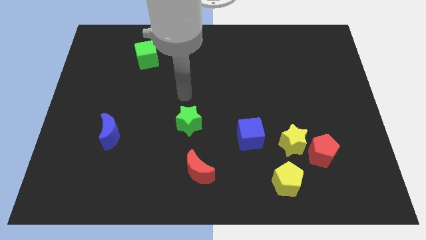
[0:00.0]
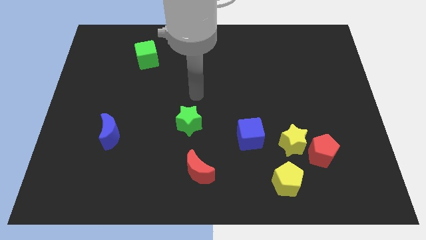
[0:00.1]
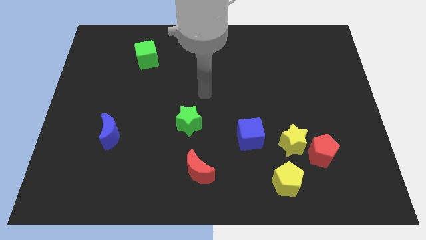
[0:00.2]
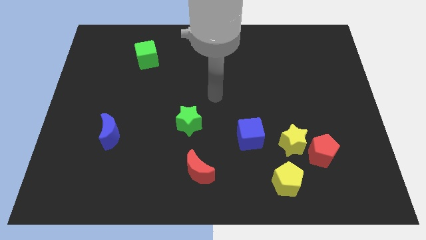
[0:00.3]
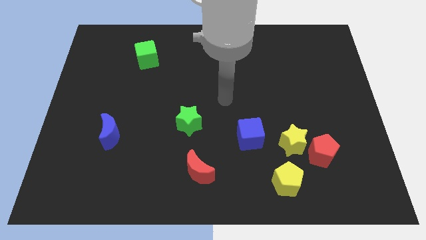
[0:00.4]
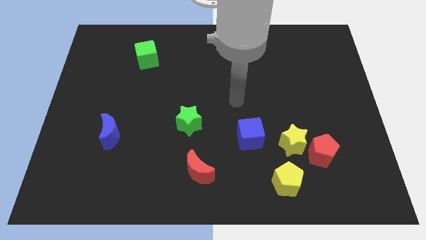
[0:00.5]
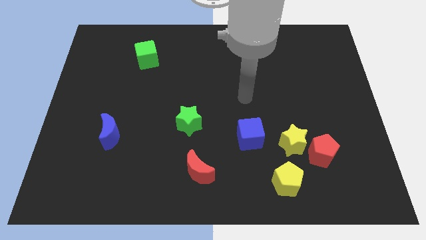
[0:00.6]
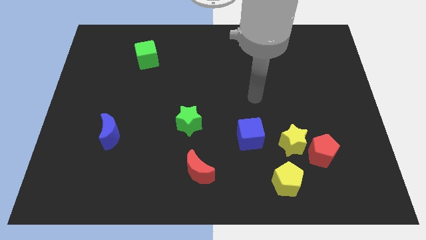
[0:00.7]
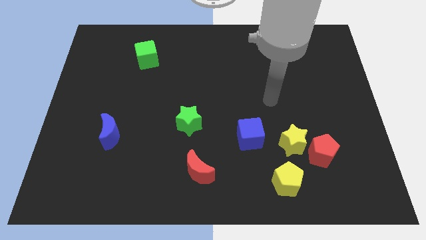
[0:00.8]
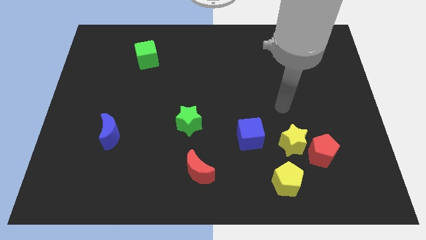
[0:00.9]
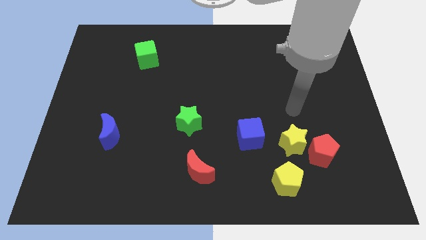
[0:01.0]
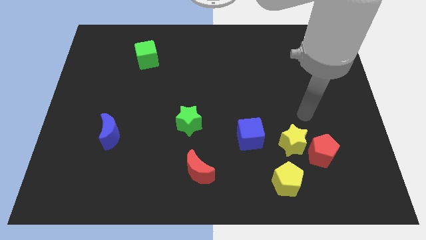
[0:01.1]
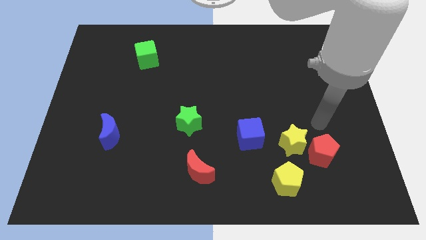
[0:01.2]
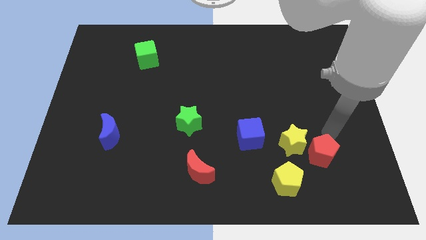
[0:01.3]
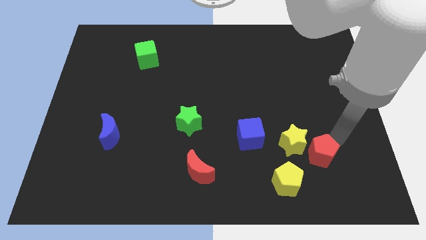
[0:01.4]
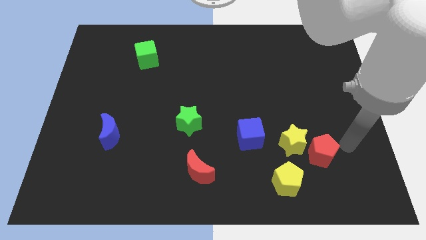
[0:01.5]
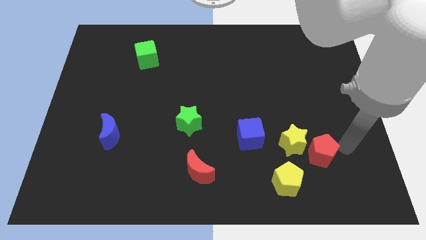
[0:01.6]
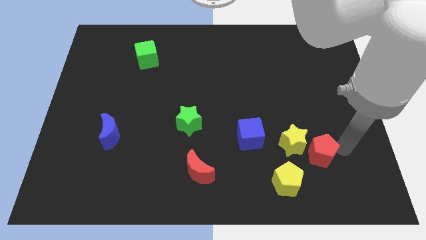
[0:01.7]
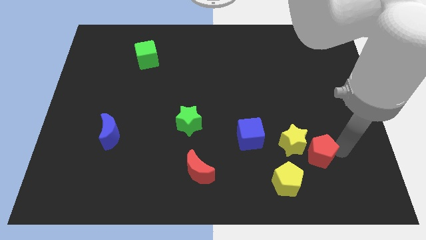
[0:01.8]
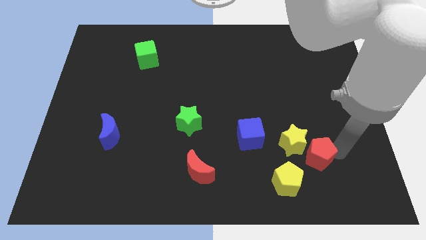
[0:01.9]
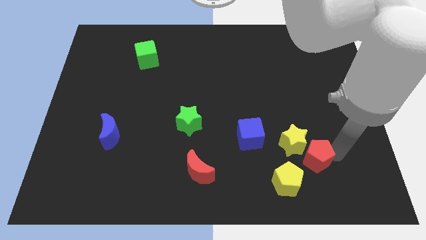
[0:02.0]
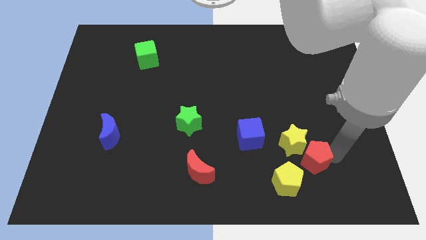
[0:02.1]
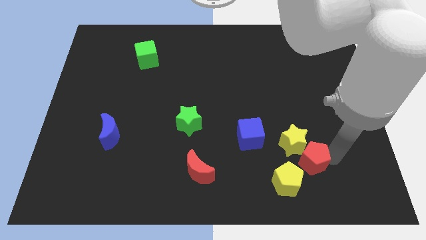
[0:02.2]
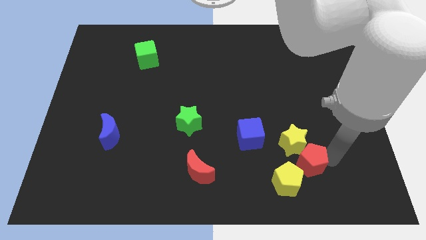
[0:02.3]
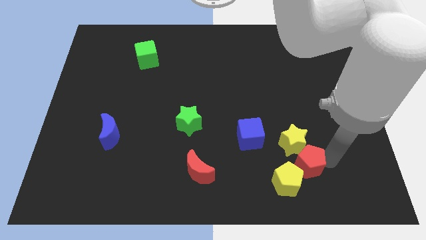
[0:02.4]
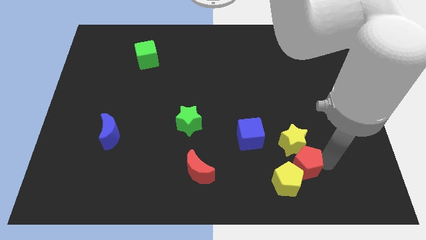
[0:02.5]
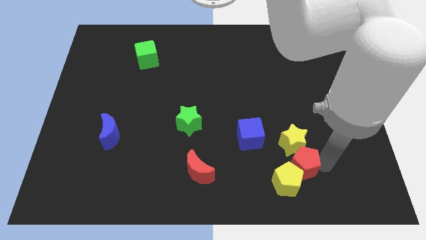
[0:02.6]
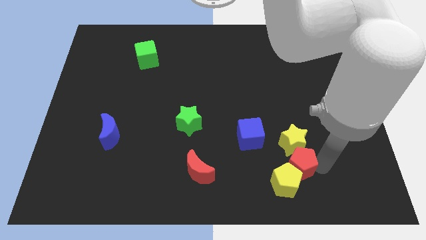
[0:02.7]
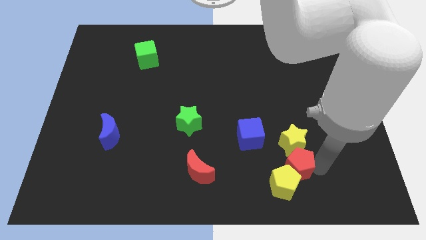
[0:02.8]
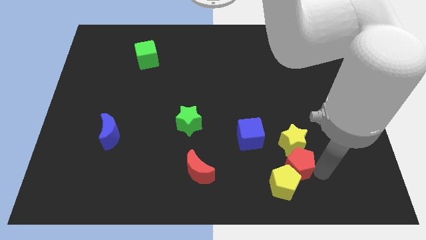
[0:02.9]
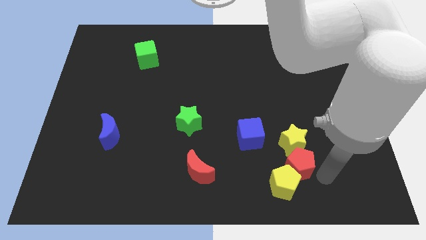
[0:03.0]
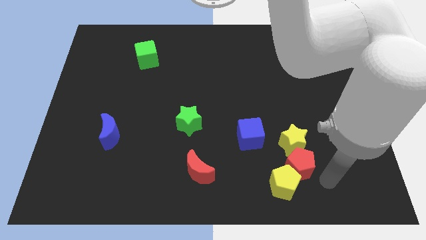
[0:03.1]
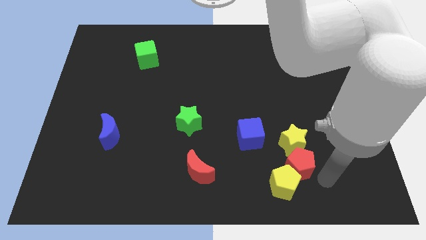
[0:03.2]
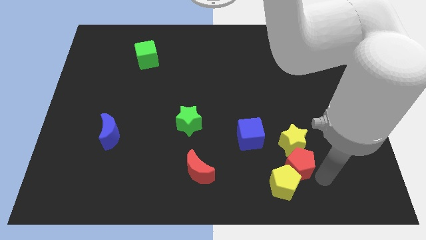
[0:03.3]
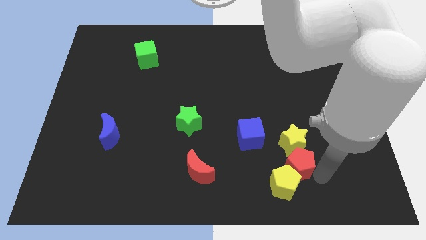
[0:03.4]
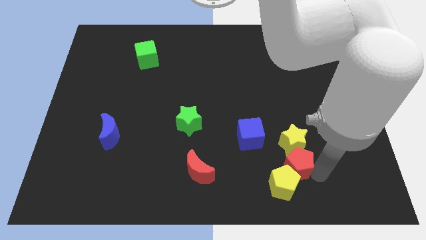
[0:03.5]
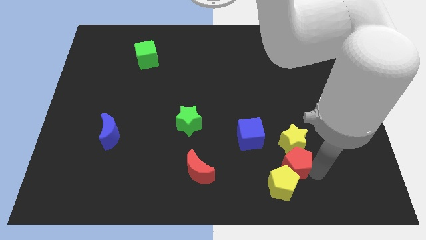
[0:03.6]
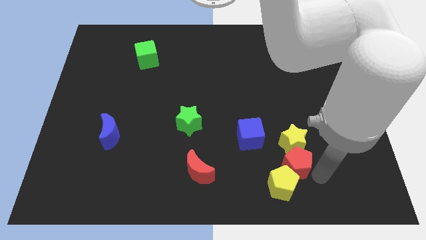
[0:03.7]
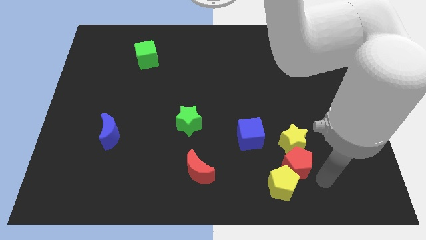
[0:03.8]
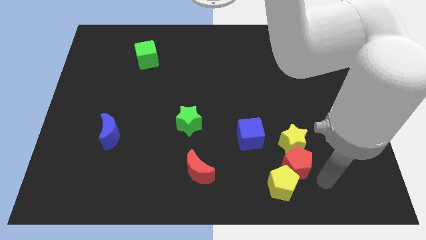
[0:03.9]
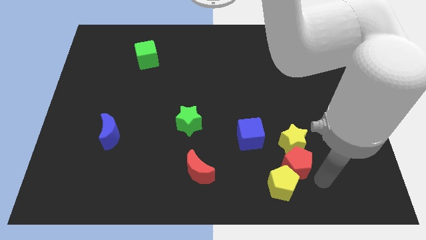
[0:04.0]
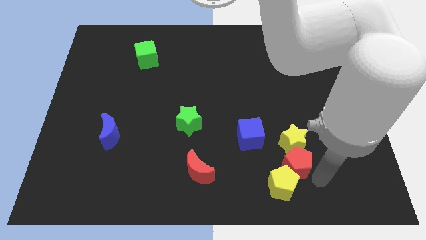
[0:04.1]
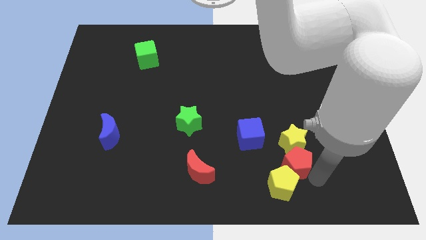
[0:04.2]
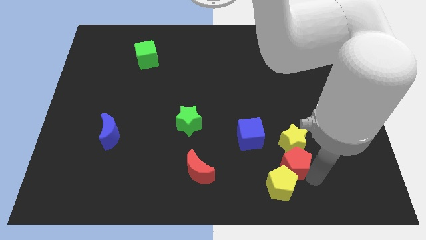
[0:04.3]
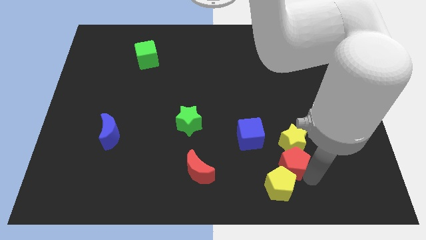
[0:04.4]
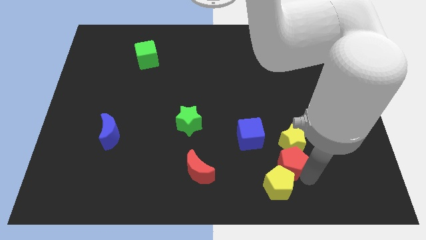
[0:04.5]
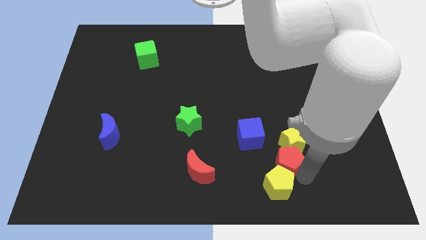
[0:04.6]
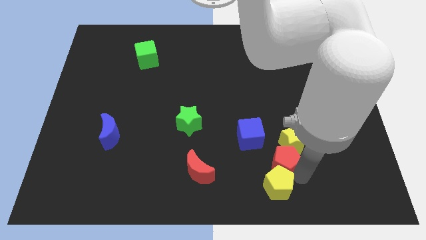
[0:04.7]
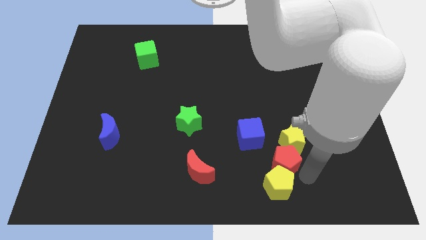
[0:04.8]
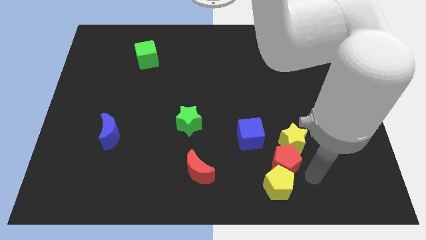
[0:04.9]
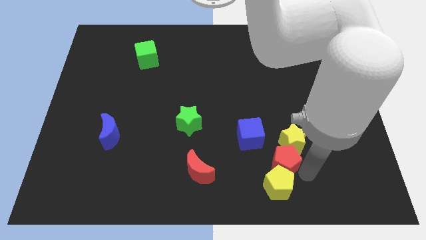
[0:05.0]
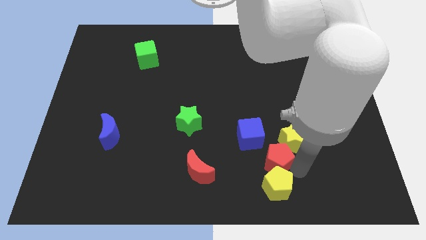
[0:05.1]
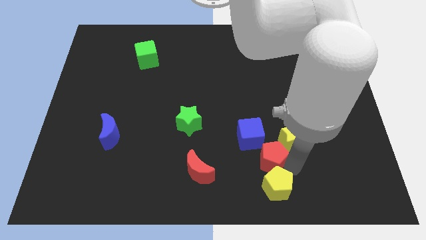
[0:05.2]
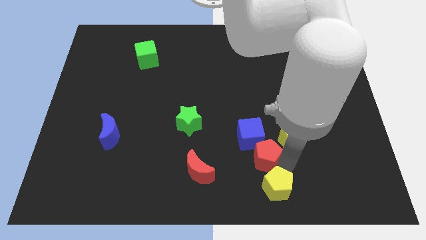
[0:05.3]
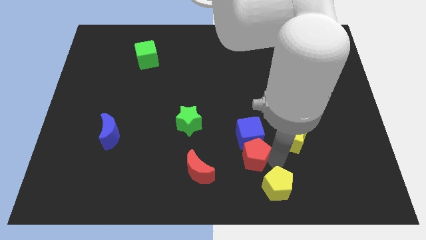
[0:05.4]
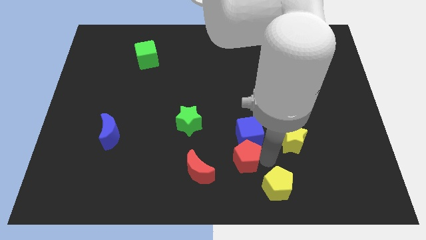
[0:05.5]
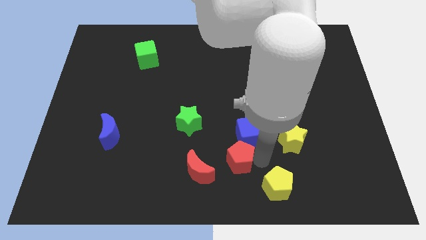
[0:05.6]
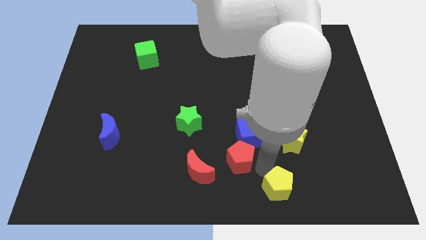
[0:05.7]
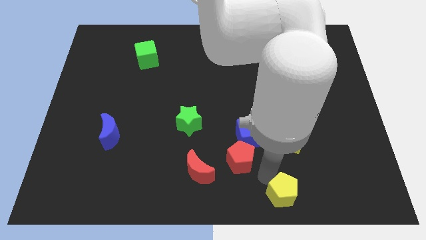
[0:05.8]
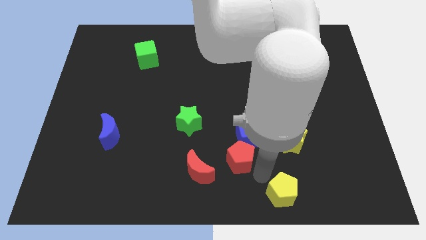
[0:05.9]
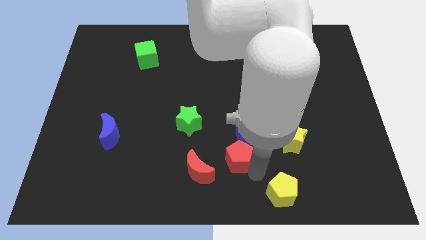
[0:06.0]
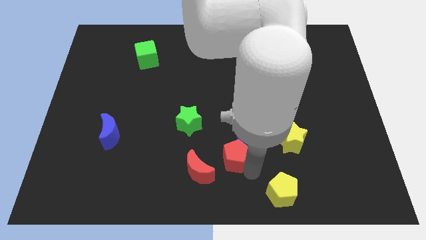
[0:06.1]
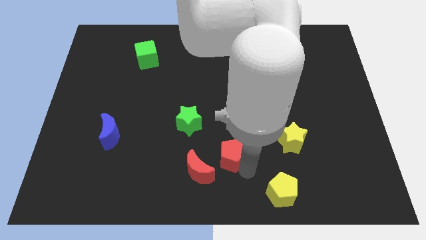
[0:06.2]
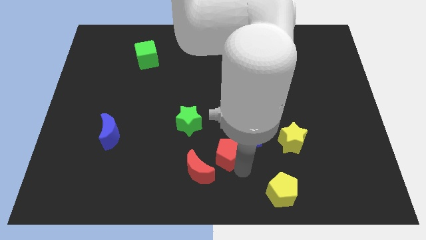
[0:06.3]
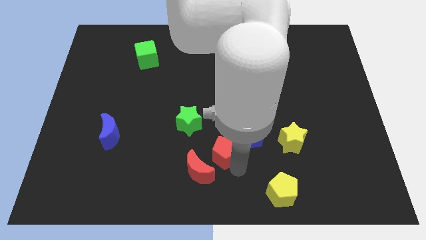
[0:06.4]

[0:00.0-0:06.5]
slide the red pentagon to the left of the blue cube

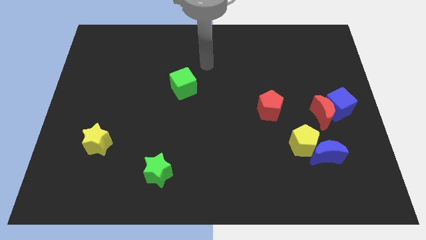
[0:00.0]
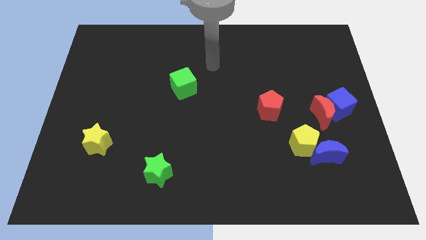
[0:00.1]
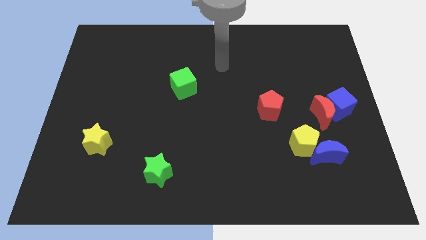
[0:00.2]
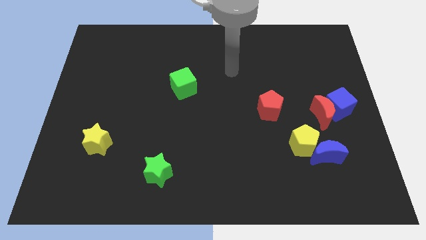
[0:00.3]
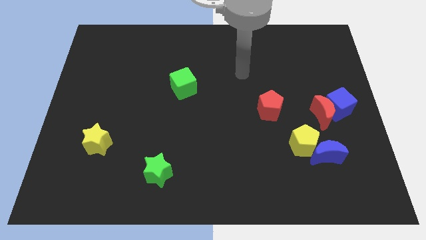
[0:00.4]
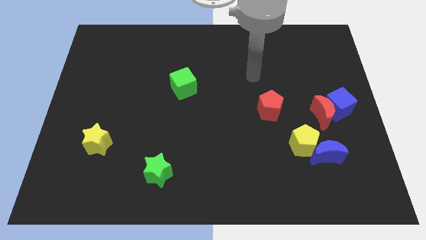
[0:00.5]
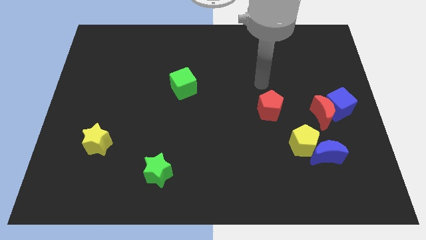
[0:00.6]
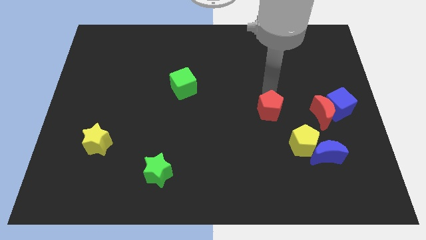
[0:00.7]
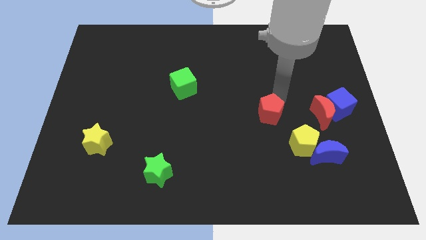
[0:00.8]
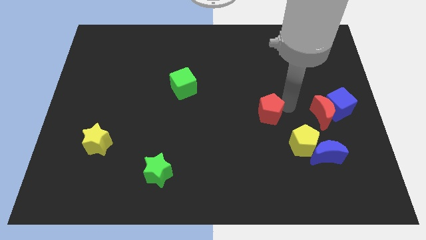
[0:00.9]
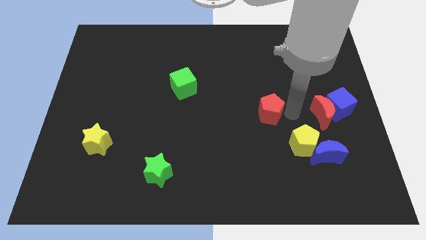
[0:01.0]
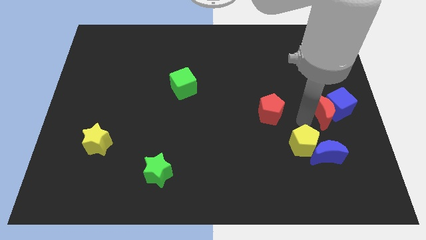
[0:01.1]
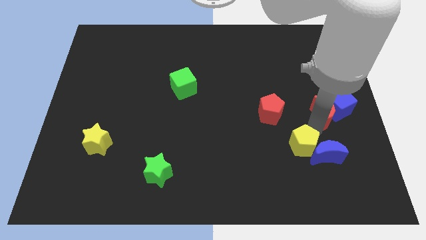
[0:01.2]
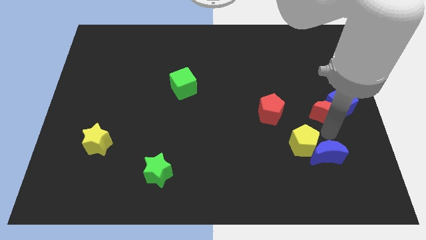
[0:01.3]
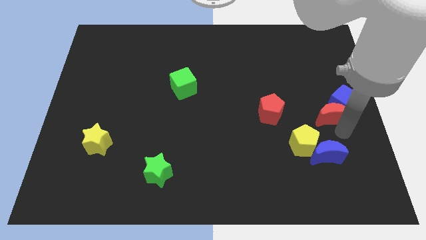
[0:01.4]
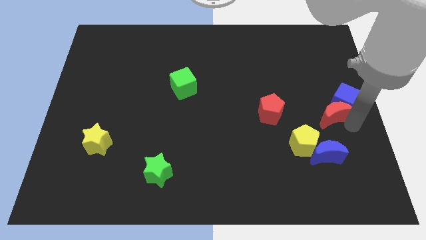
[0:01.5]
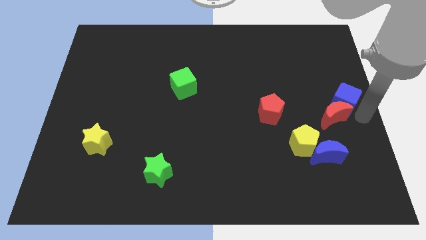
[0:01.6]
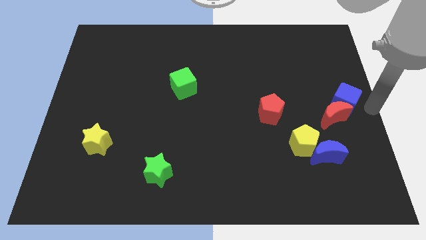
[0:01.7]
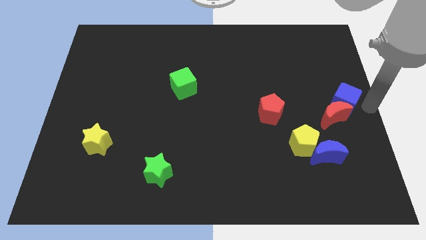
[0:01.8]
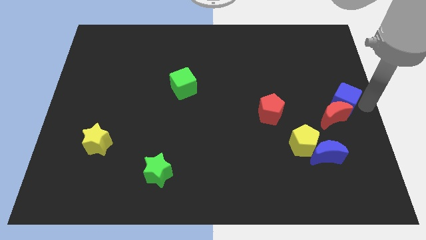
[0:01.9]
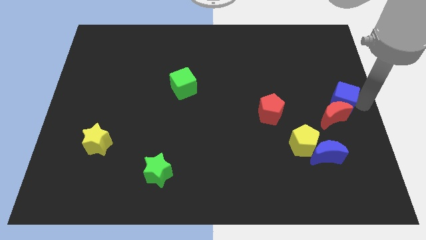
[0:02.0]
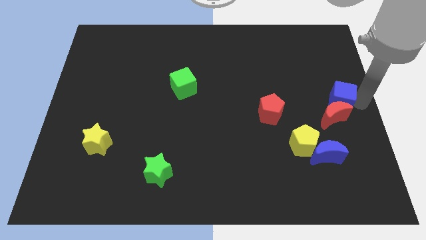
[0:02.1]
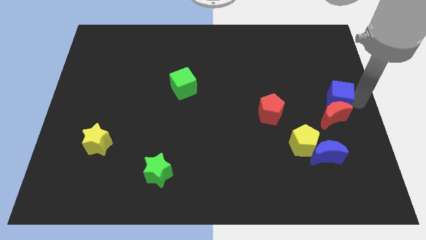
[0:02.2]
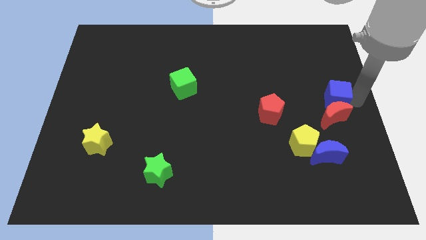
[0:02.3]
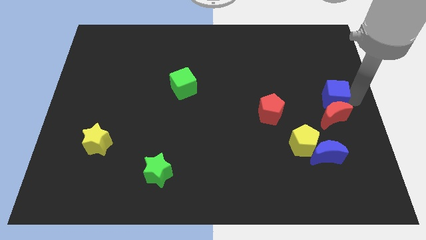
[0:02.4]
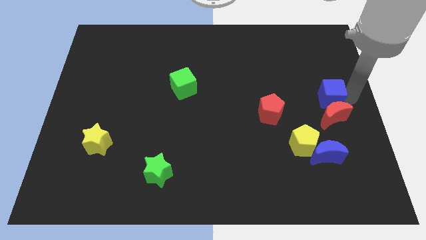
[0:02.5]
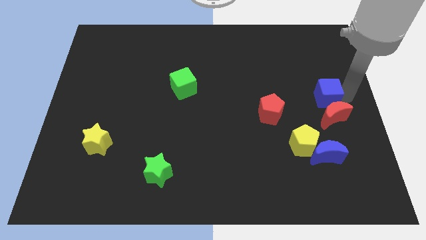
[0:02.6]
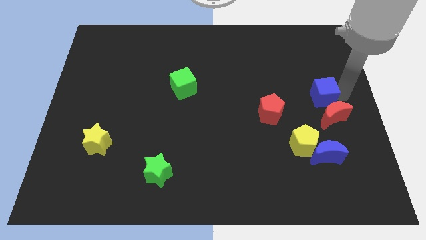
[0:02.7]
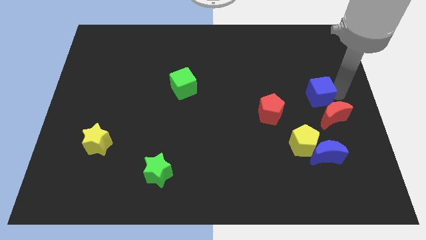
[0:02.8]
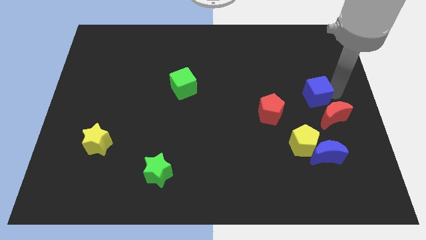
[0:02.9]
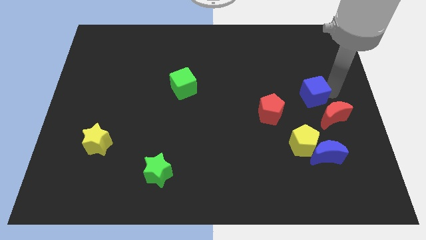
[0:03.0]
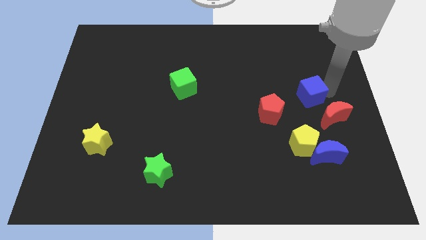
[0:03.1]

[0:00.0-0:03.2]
put the blue cube to the top of the yellow pentagon
